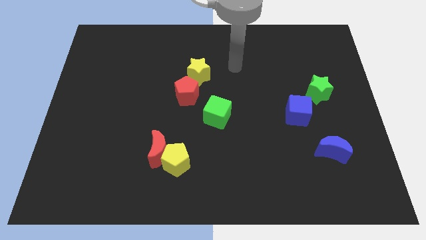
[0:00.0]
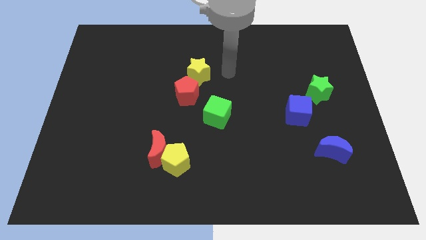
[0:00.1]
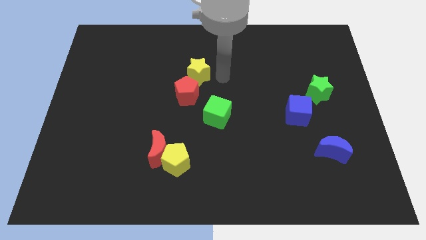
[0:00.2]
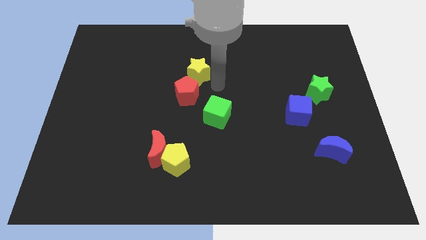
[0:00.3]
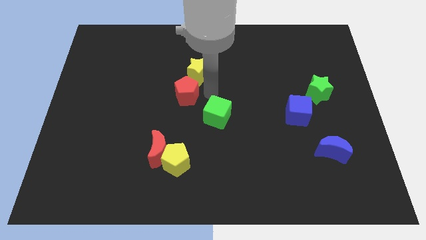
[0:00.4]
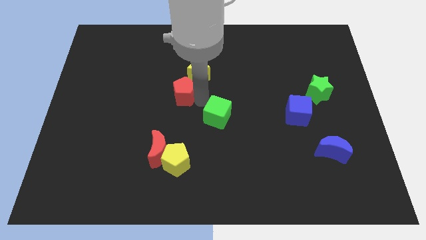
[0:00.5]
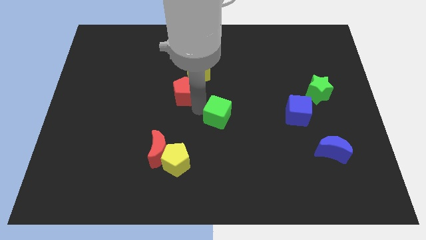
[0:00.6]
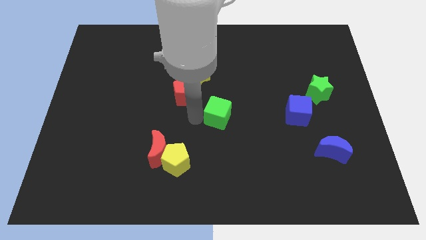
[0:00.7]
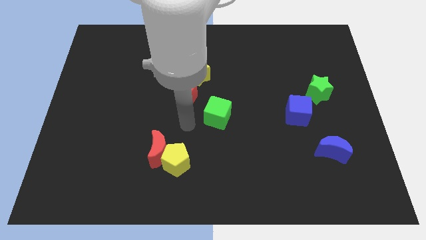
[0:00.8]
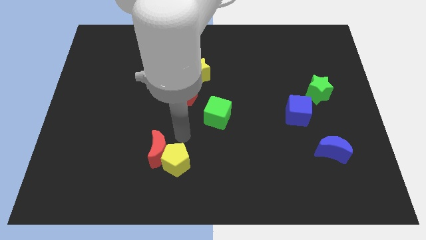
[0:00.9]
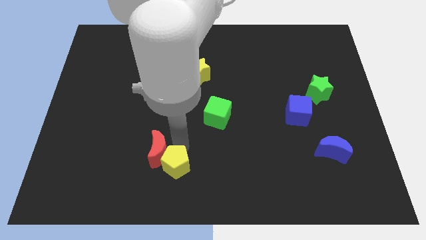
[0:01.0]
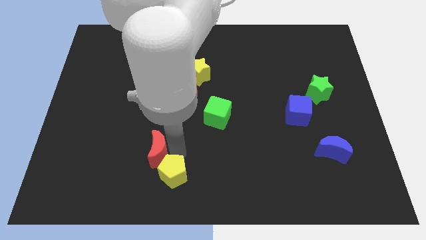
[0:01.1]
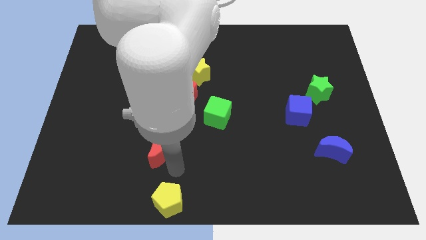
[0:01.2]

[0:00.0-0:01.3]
move the red moon away from the yellow pentagon

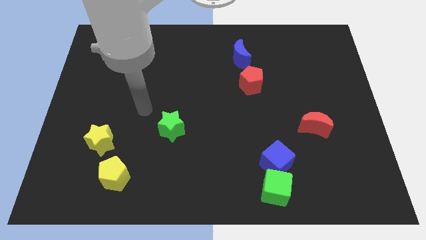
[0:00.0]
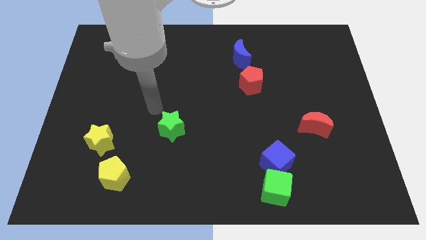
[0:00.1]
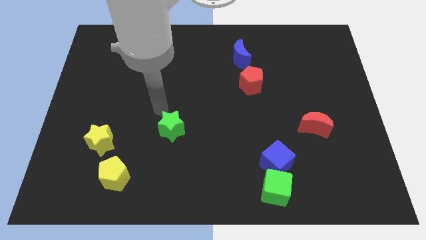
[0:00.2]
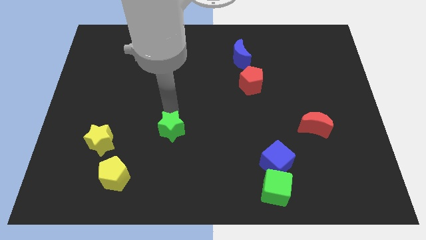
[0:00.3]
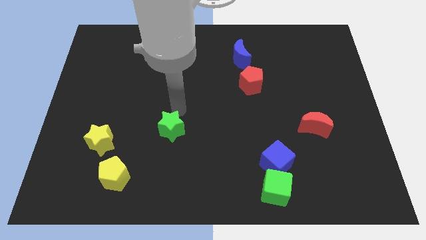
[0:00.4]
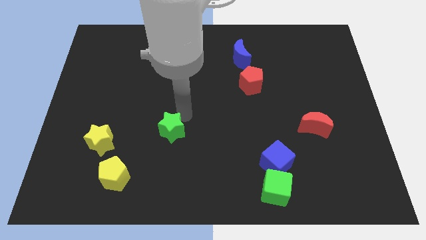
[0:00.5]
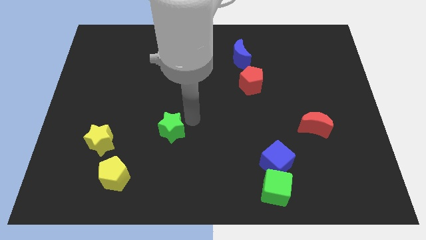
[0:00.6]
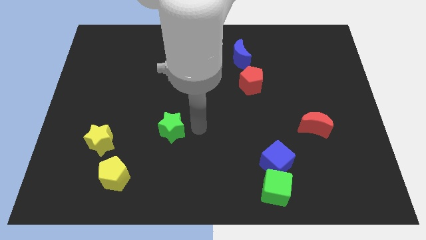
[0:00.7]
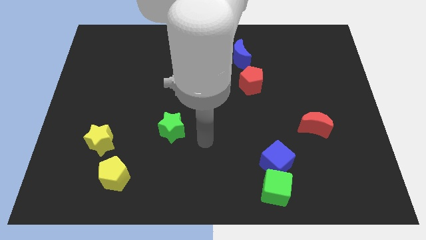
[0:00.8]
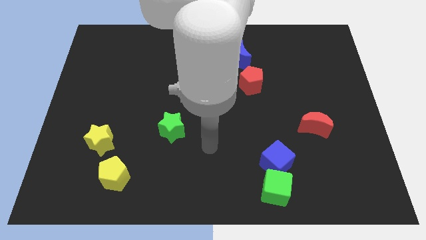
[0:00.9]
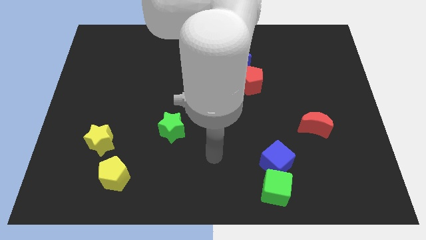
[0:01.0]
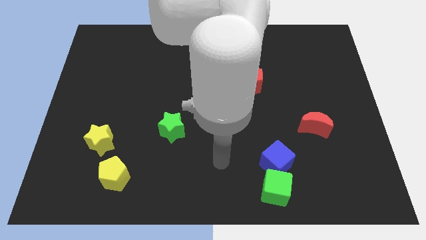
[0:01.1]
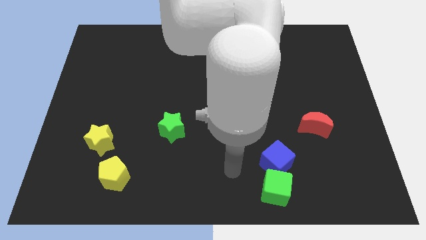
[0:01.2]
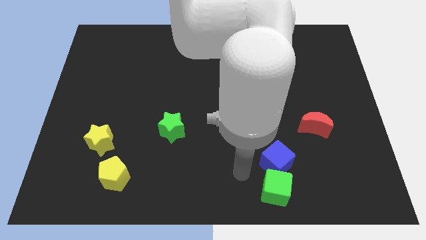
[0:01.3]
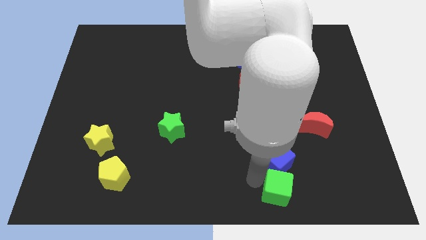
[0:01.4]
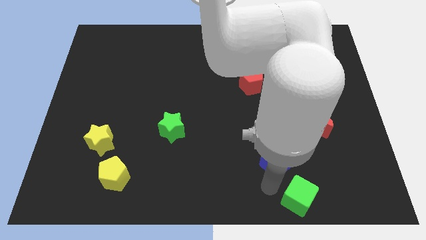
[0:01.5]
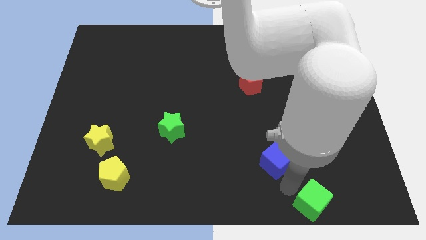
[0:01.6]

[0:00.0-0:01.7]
move the blue cube away from the green cube

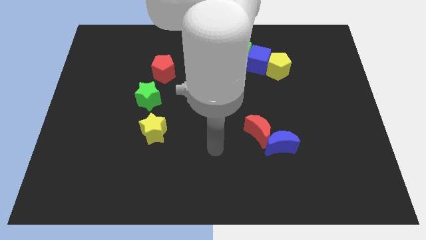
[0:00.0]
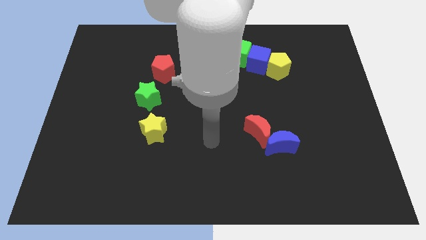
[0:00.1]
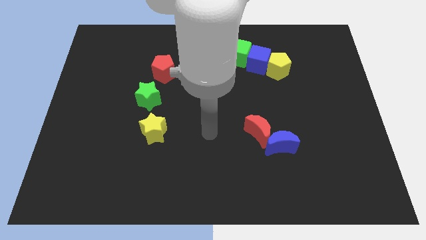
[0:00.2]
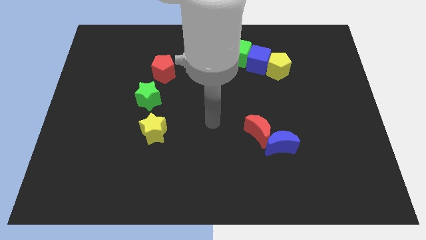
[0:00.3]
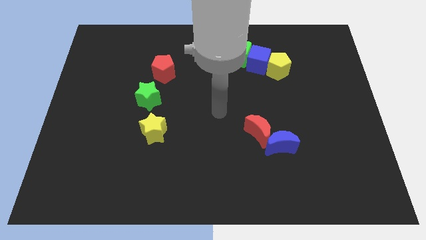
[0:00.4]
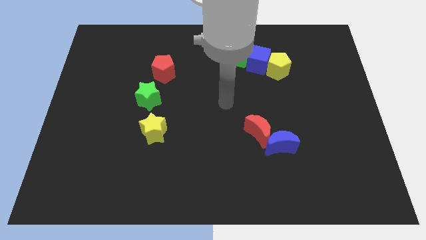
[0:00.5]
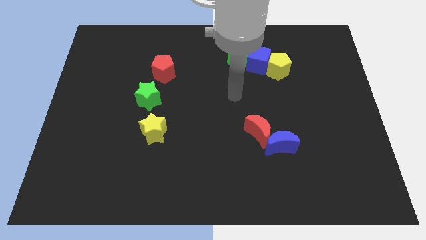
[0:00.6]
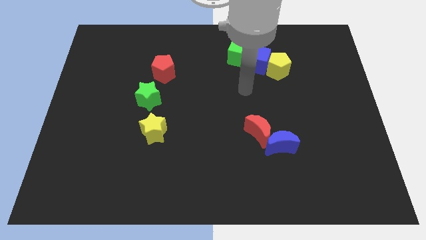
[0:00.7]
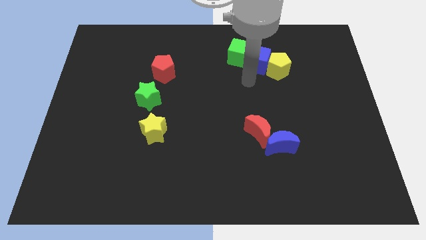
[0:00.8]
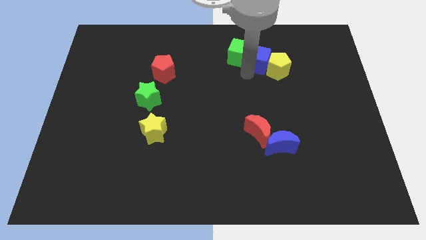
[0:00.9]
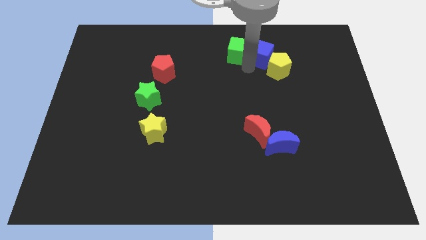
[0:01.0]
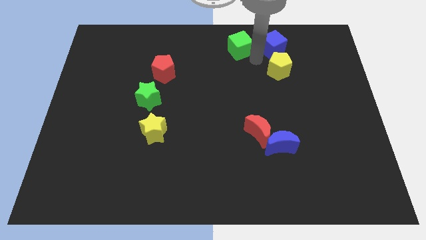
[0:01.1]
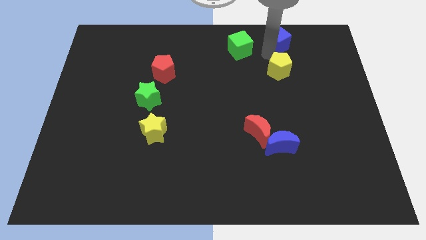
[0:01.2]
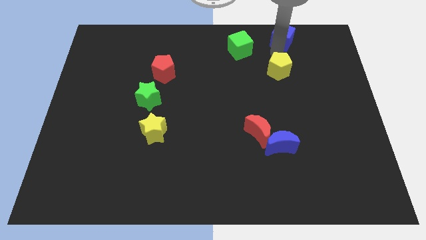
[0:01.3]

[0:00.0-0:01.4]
separate the yellow pentagon from the blue cube

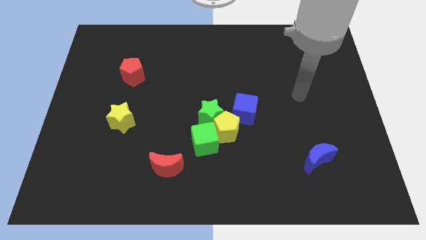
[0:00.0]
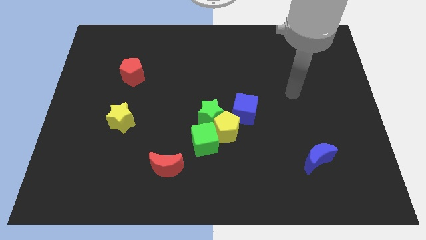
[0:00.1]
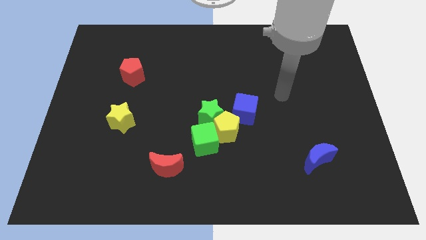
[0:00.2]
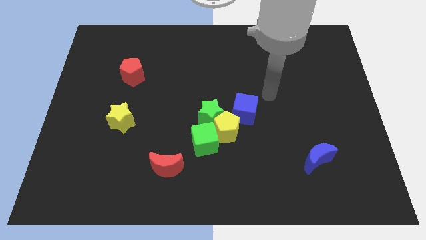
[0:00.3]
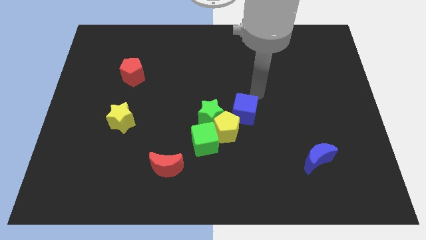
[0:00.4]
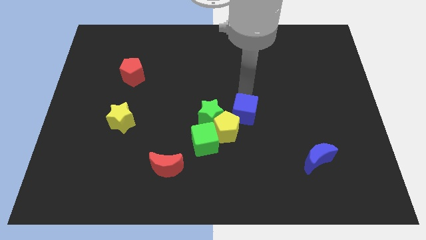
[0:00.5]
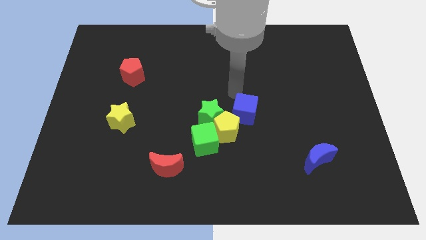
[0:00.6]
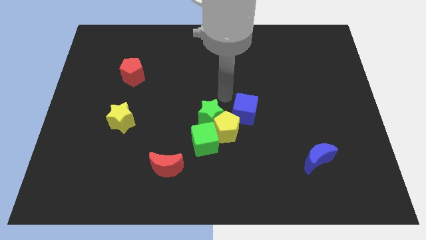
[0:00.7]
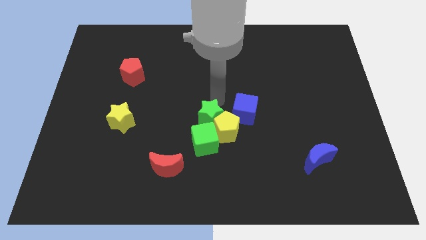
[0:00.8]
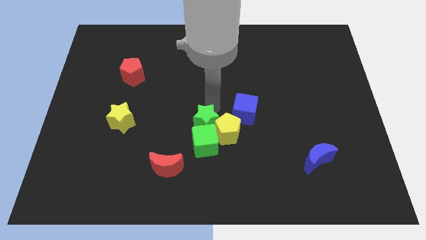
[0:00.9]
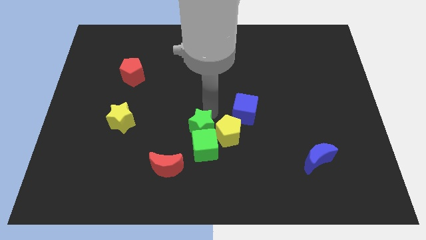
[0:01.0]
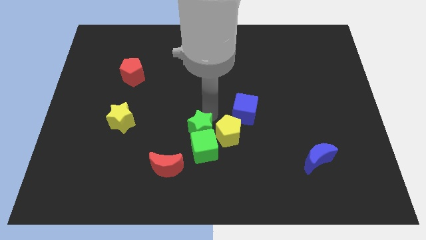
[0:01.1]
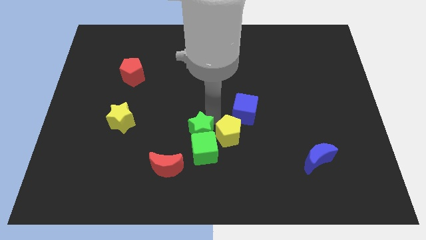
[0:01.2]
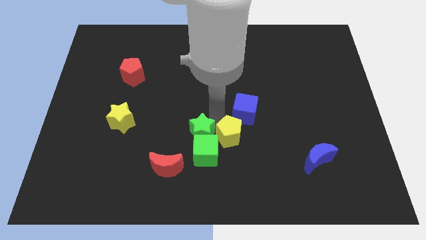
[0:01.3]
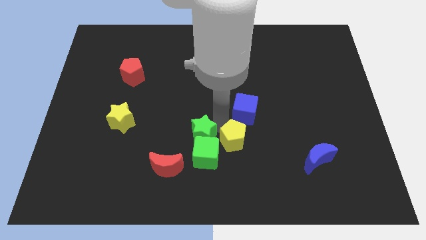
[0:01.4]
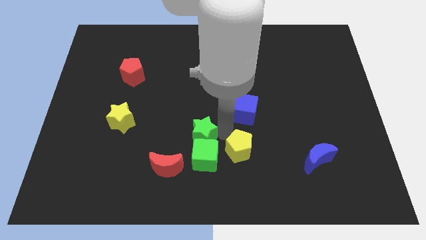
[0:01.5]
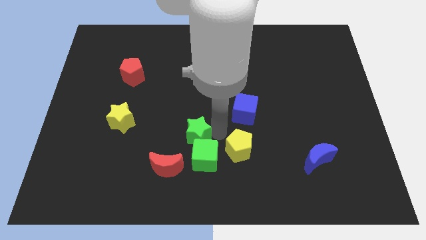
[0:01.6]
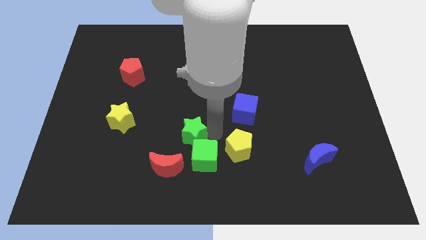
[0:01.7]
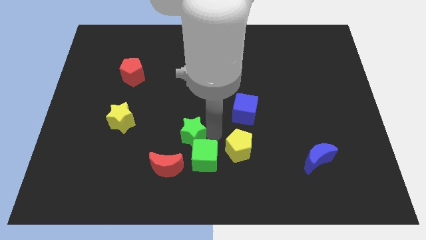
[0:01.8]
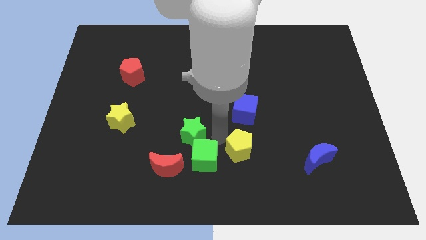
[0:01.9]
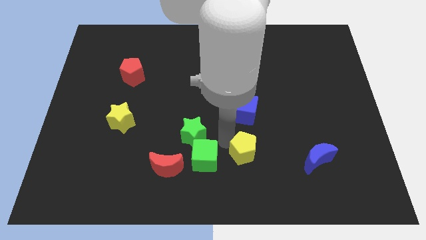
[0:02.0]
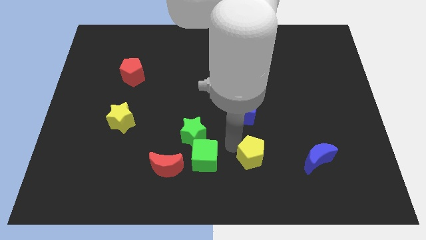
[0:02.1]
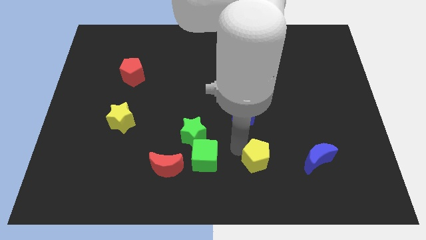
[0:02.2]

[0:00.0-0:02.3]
pull the yellow pentagon apart from the group of blocks

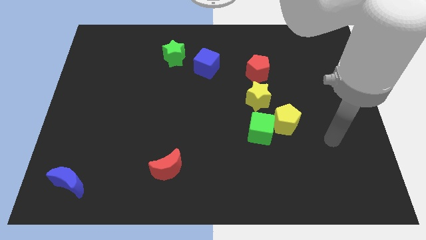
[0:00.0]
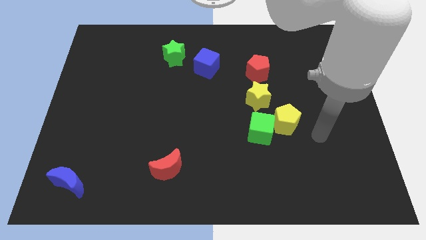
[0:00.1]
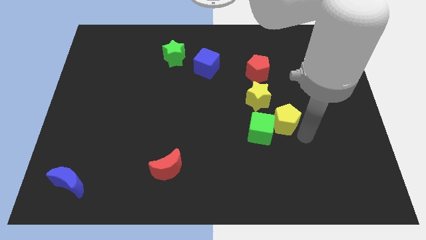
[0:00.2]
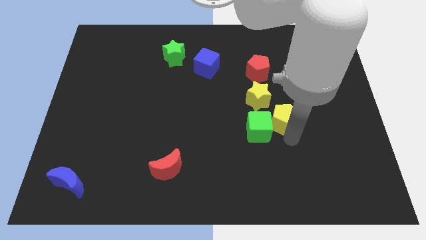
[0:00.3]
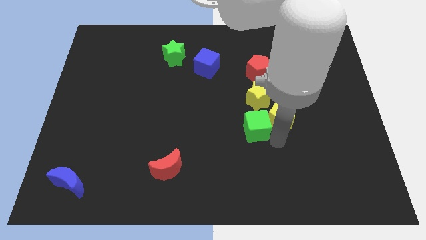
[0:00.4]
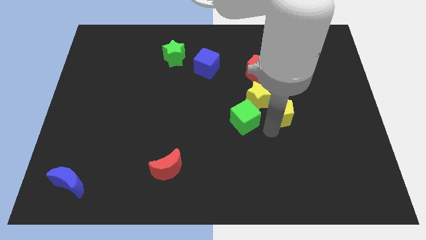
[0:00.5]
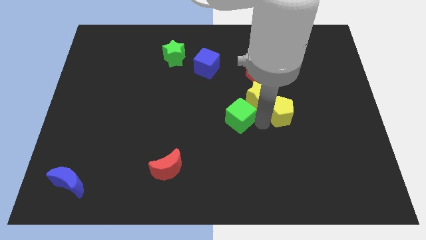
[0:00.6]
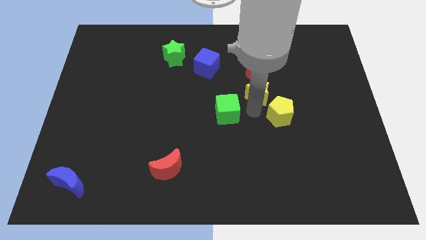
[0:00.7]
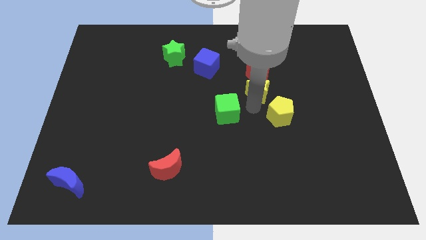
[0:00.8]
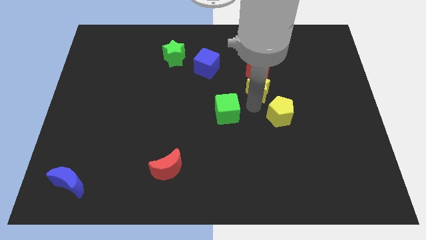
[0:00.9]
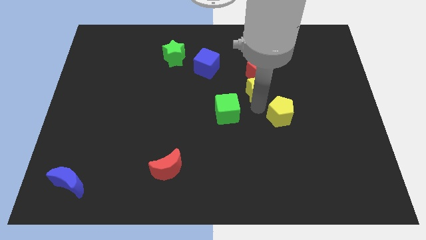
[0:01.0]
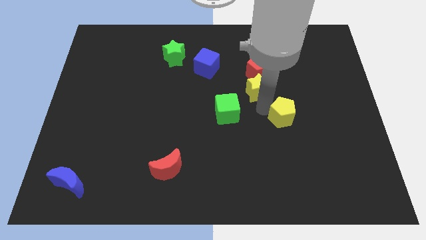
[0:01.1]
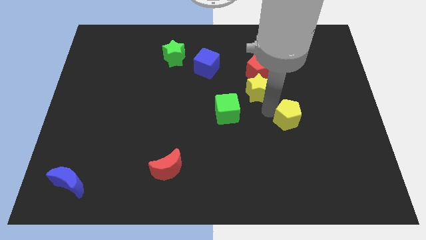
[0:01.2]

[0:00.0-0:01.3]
pull the yellow pentagon apart from the green cube and yellow star

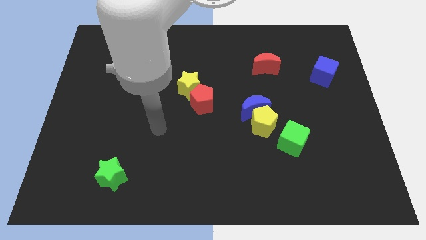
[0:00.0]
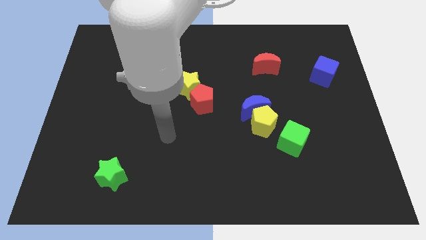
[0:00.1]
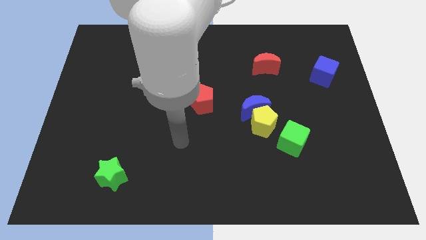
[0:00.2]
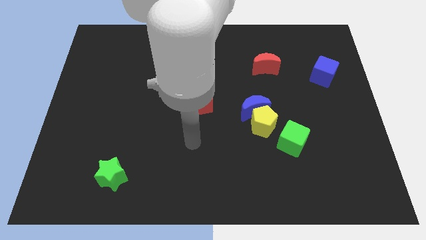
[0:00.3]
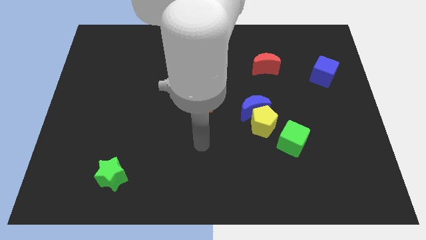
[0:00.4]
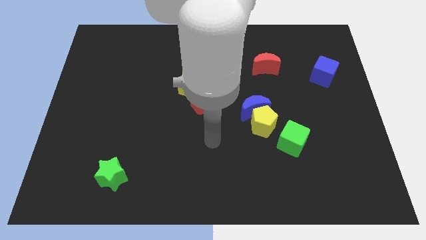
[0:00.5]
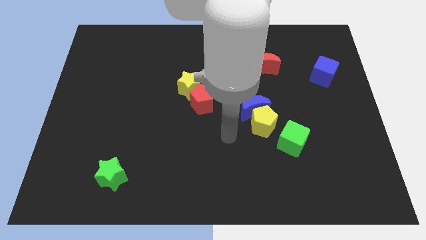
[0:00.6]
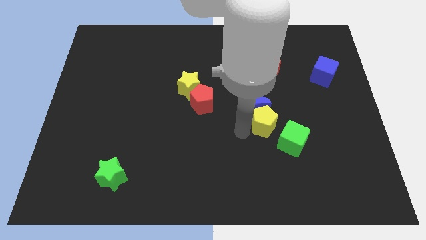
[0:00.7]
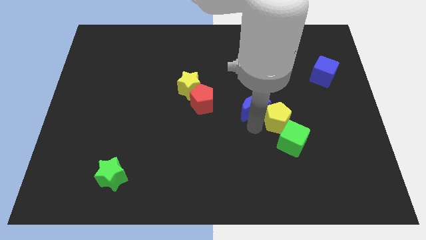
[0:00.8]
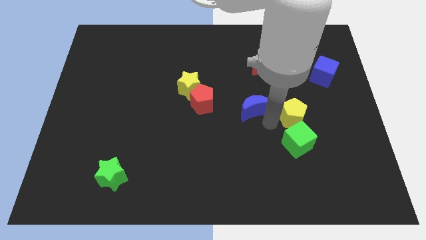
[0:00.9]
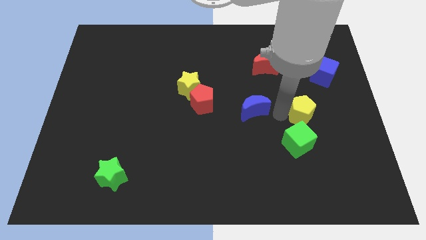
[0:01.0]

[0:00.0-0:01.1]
pull the blue moon apart from the yellow pentagon

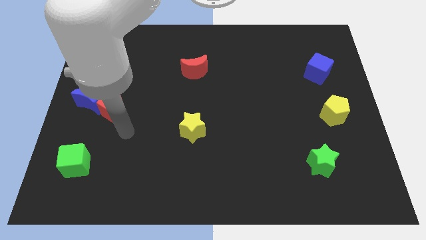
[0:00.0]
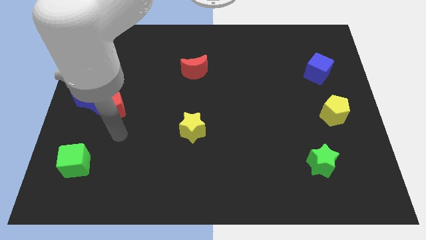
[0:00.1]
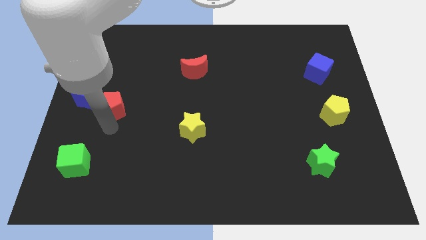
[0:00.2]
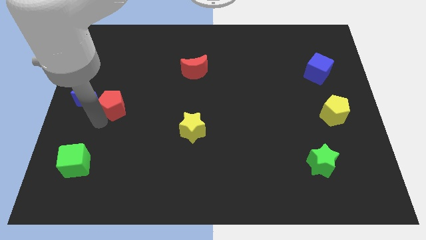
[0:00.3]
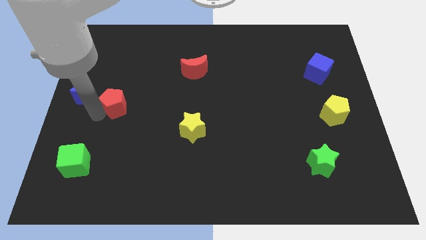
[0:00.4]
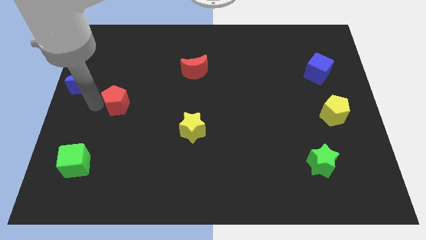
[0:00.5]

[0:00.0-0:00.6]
pull the red pentagon apart from the blue moon
